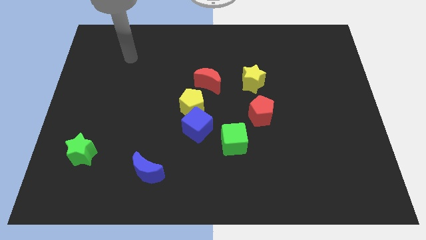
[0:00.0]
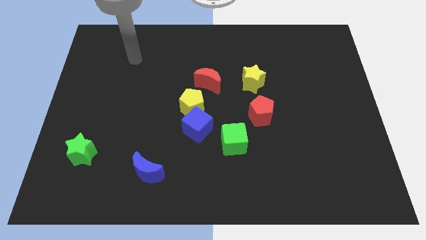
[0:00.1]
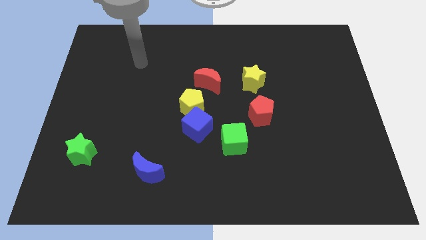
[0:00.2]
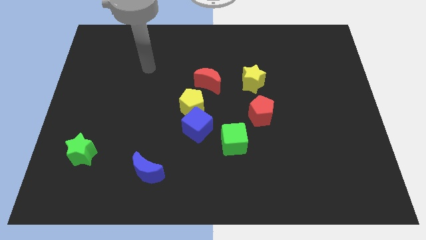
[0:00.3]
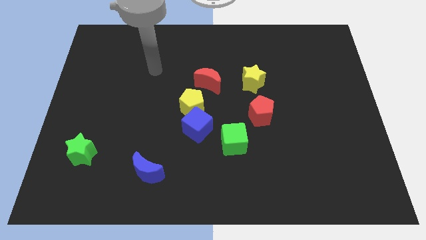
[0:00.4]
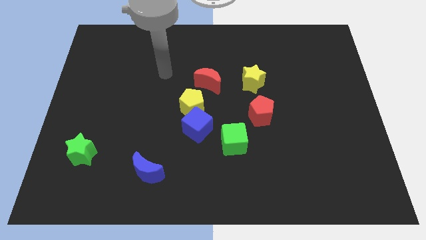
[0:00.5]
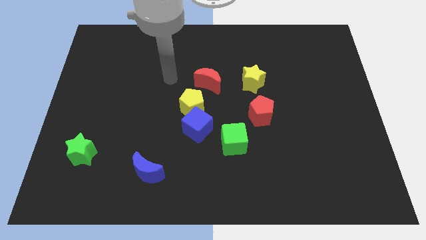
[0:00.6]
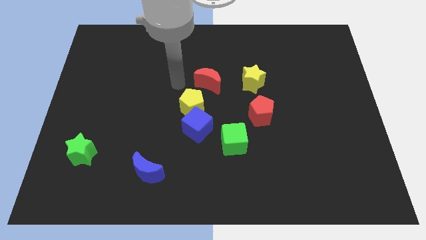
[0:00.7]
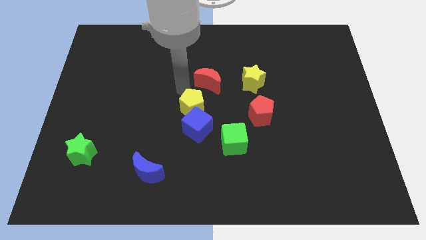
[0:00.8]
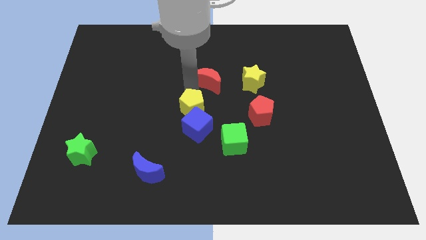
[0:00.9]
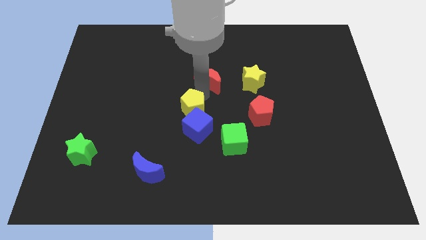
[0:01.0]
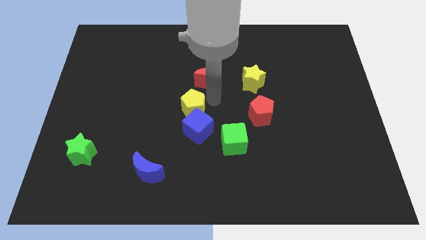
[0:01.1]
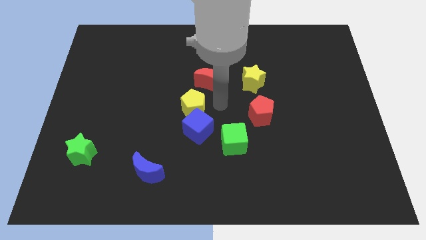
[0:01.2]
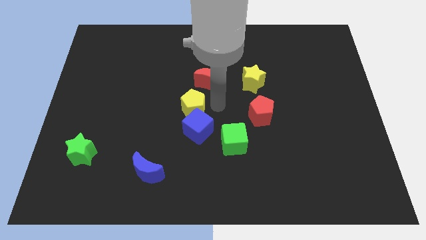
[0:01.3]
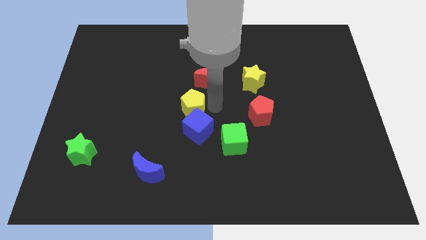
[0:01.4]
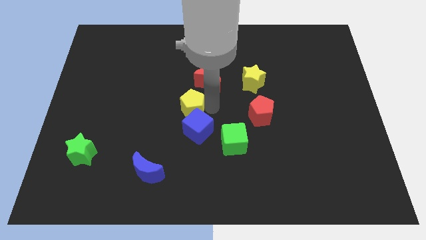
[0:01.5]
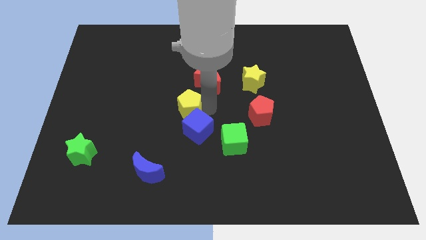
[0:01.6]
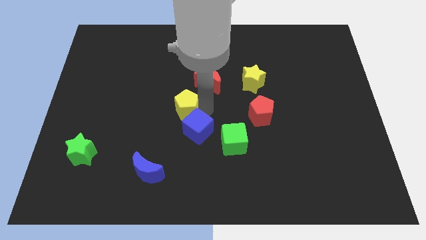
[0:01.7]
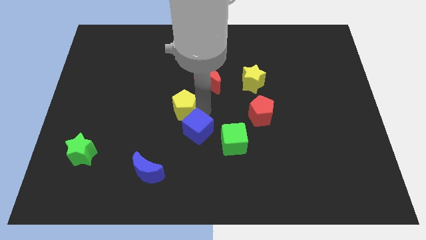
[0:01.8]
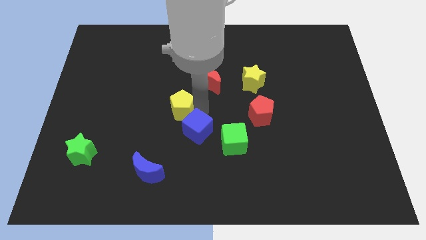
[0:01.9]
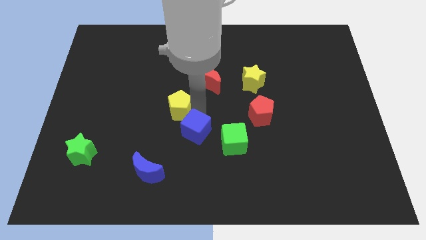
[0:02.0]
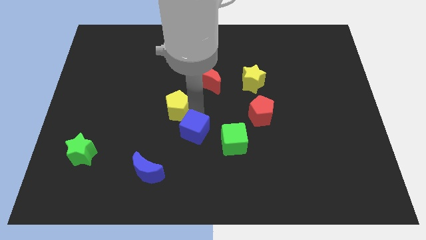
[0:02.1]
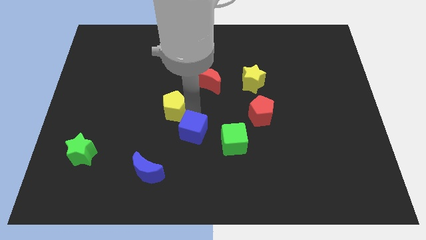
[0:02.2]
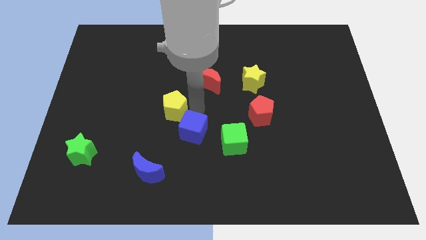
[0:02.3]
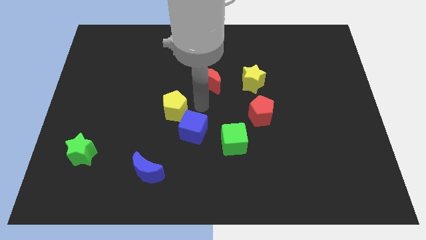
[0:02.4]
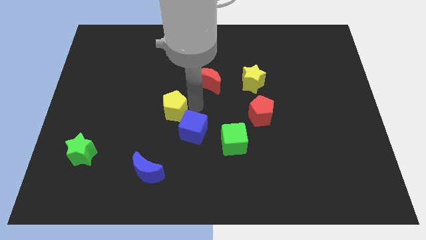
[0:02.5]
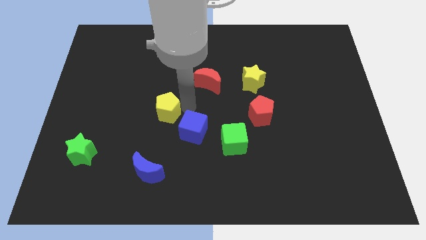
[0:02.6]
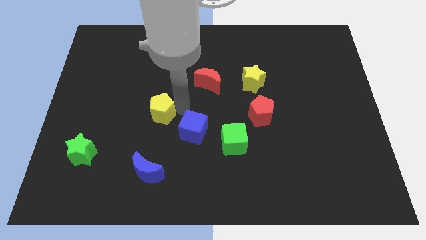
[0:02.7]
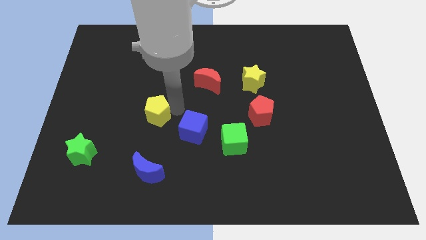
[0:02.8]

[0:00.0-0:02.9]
move the yellow pentagon away from the blue cube and red moon

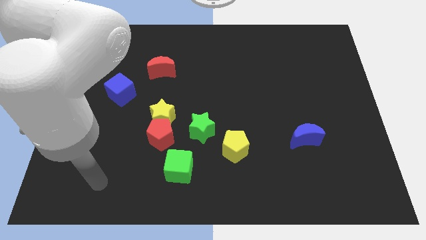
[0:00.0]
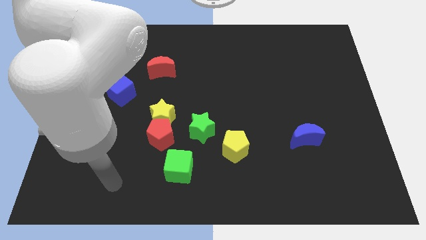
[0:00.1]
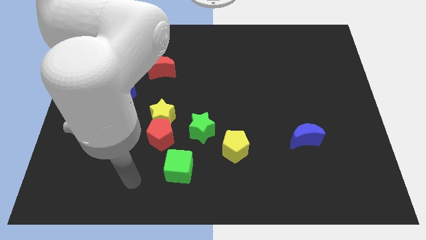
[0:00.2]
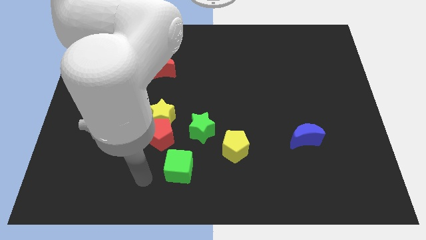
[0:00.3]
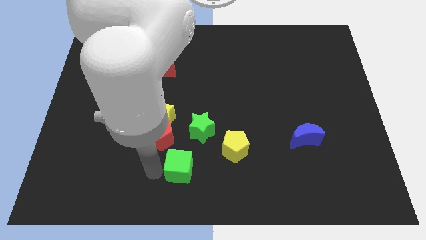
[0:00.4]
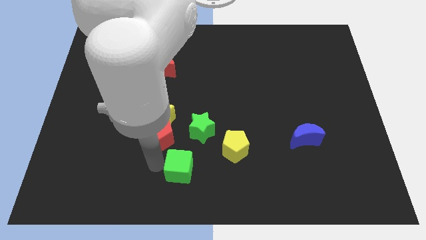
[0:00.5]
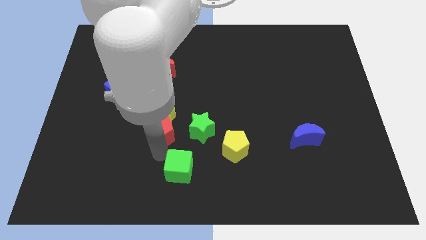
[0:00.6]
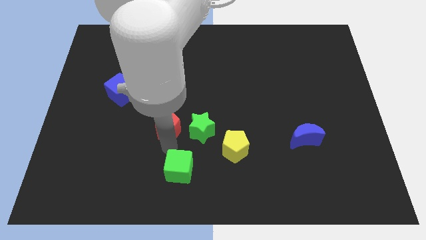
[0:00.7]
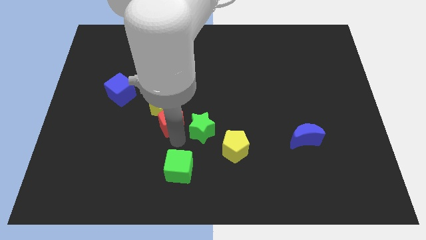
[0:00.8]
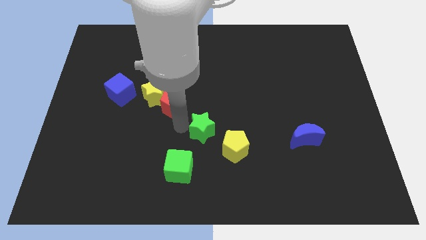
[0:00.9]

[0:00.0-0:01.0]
pull the yellow star apart from the red pentagon and green star

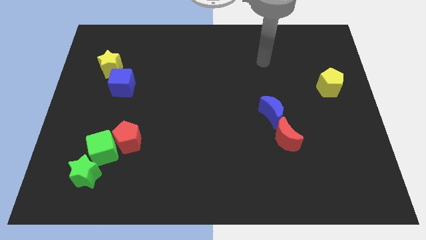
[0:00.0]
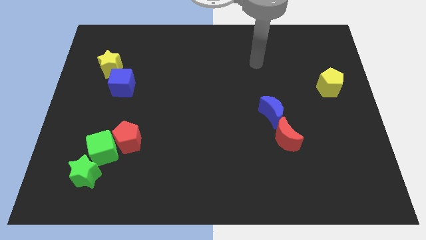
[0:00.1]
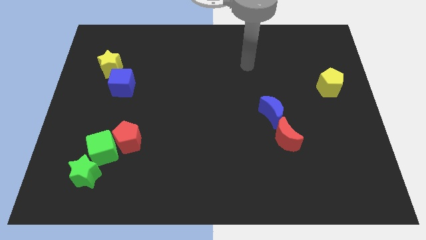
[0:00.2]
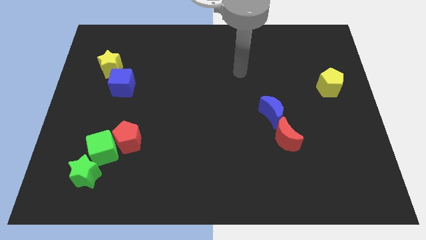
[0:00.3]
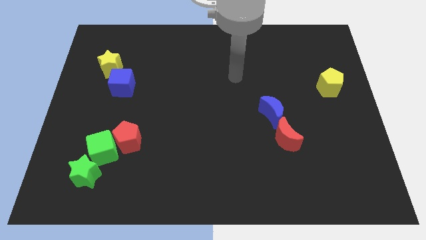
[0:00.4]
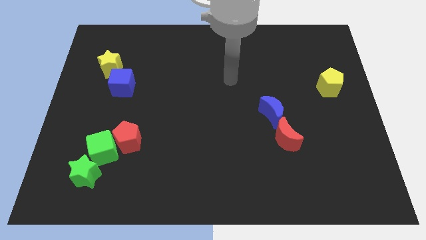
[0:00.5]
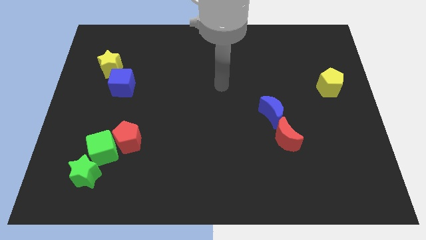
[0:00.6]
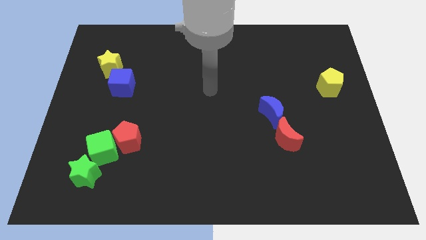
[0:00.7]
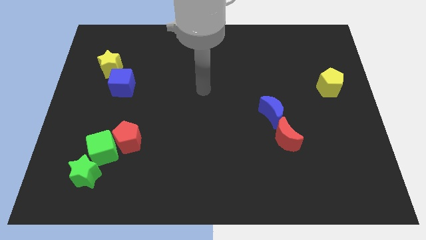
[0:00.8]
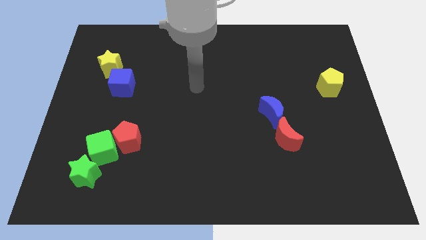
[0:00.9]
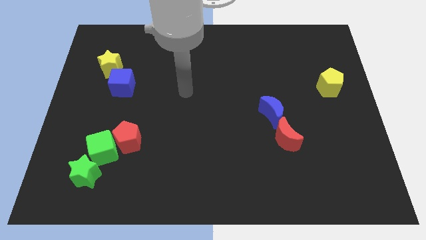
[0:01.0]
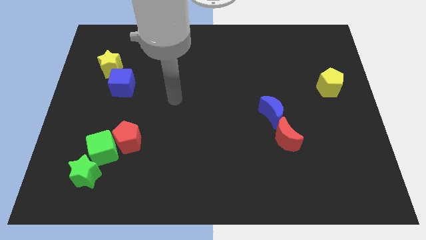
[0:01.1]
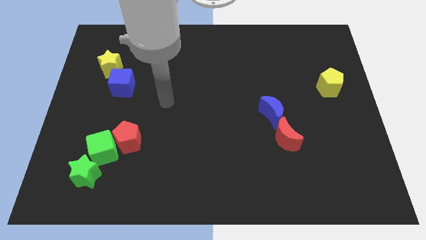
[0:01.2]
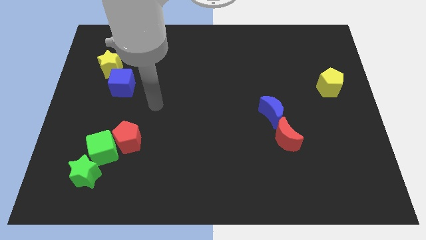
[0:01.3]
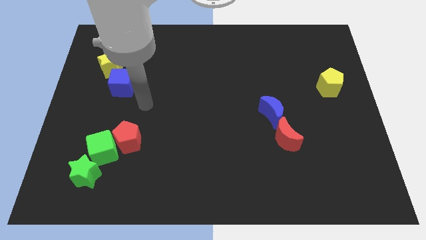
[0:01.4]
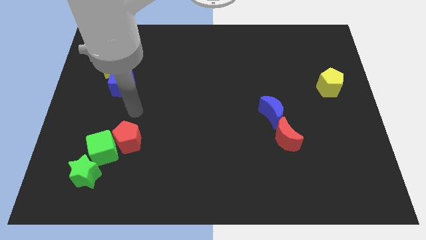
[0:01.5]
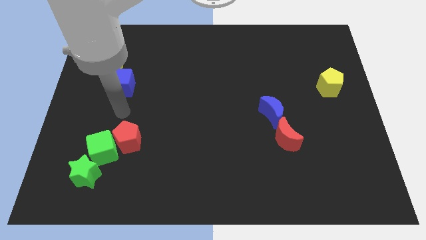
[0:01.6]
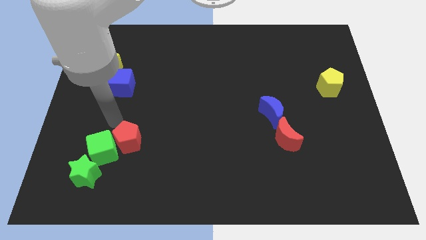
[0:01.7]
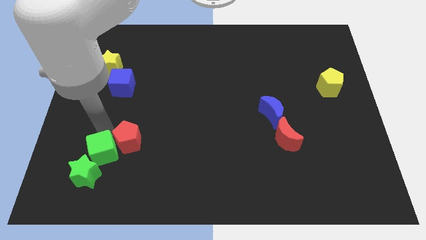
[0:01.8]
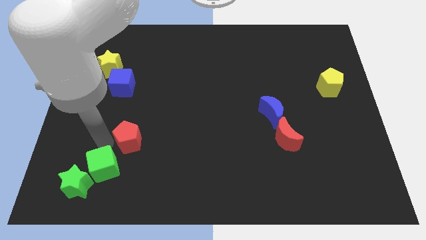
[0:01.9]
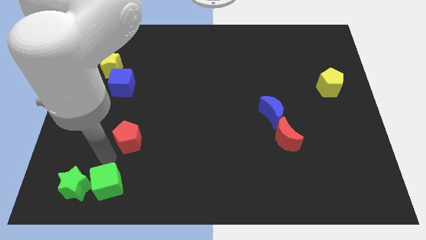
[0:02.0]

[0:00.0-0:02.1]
separate the red pentagon from the green cube

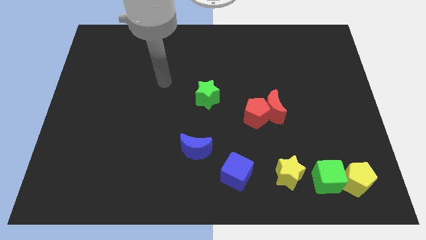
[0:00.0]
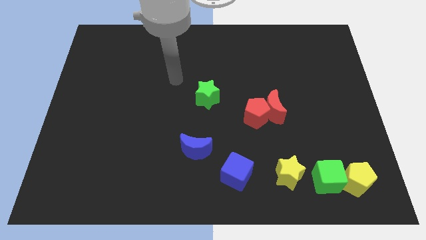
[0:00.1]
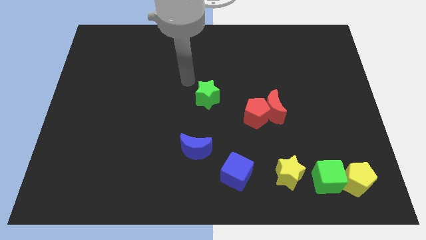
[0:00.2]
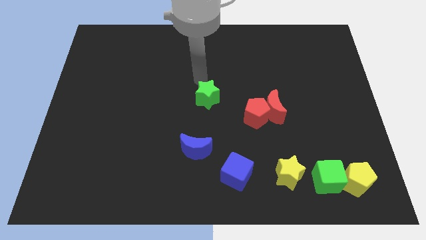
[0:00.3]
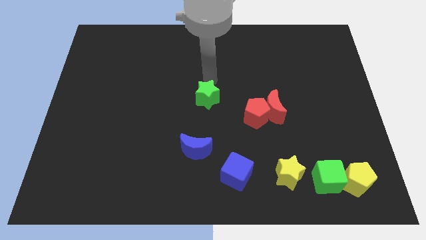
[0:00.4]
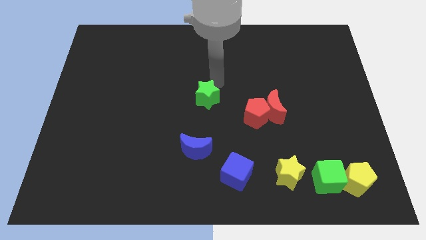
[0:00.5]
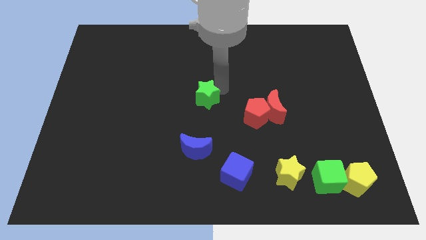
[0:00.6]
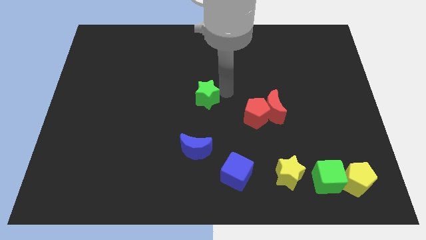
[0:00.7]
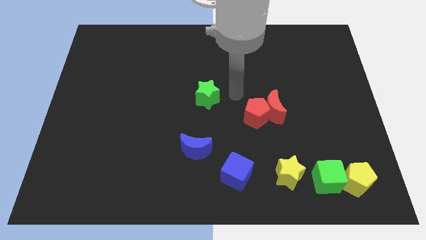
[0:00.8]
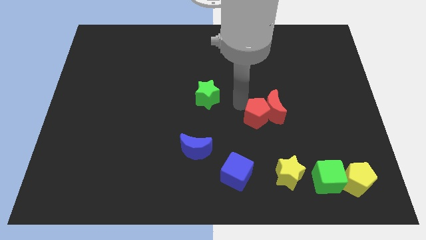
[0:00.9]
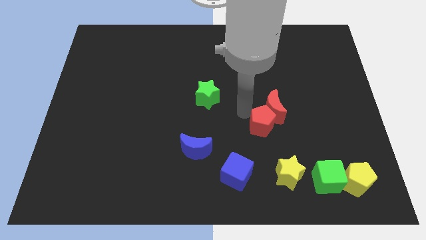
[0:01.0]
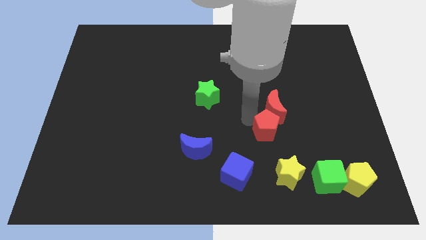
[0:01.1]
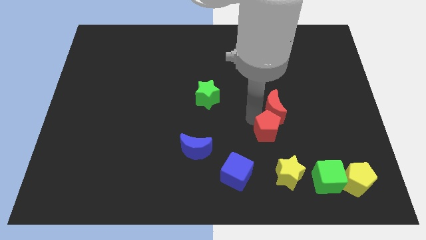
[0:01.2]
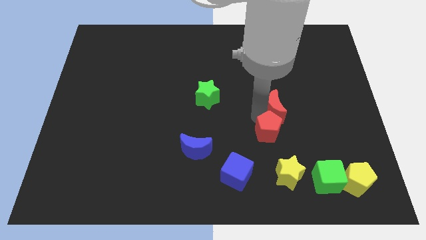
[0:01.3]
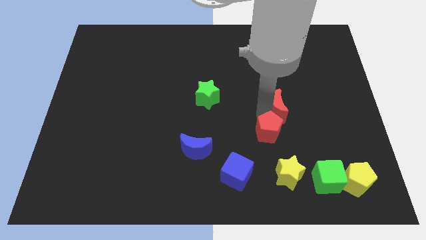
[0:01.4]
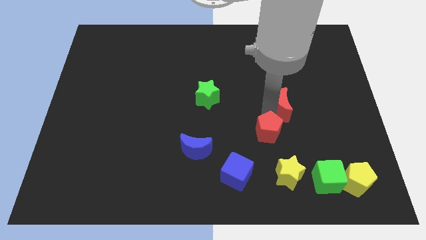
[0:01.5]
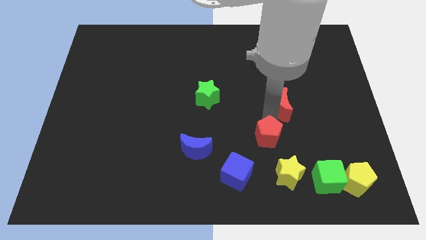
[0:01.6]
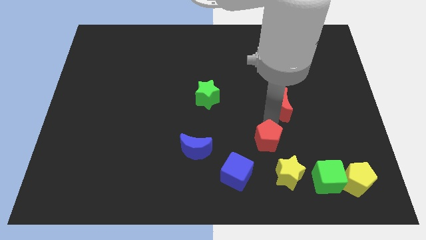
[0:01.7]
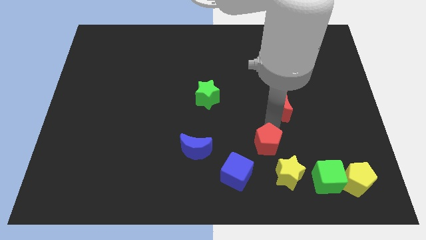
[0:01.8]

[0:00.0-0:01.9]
move the red moon away from the red pentagon

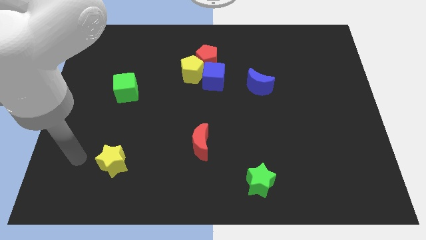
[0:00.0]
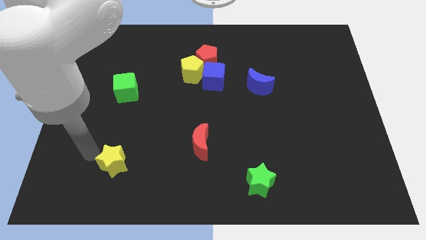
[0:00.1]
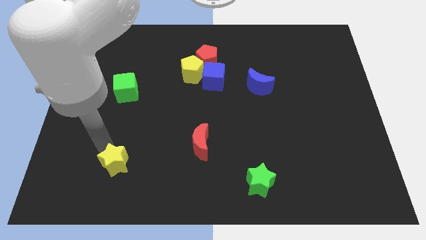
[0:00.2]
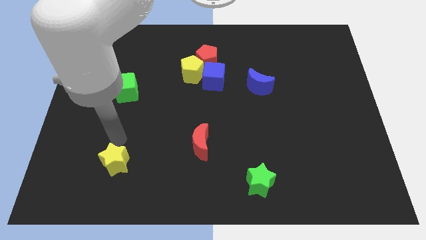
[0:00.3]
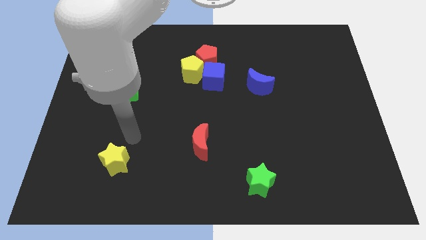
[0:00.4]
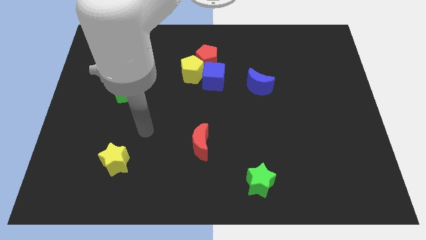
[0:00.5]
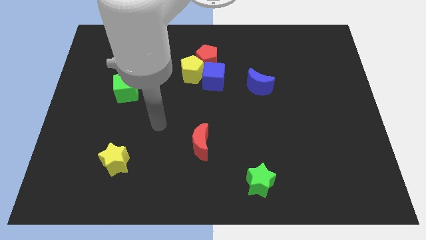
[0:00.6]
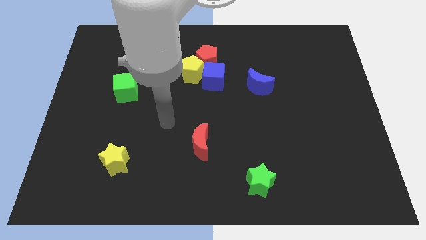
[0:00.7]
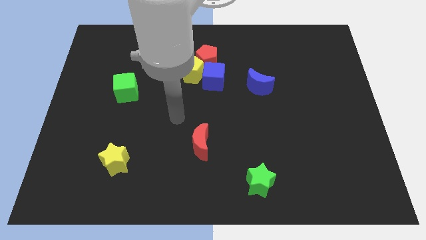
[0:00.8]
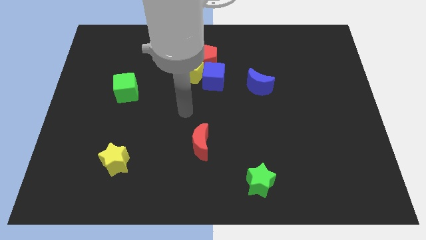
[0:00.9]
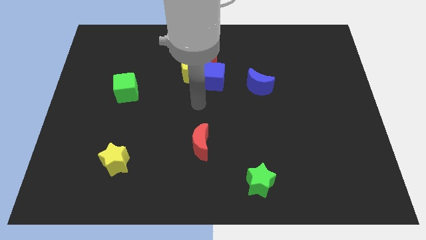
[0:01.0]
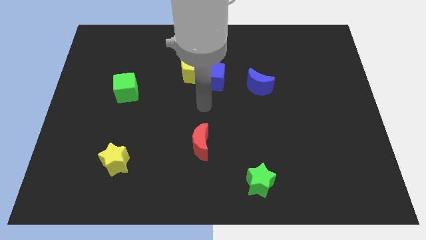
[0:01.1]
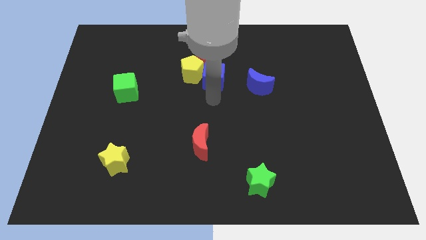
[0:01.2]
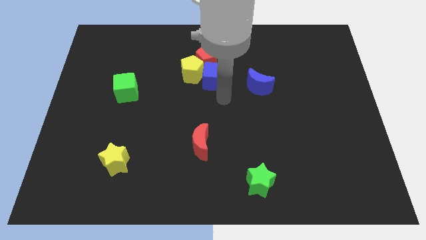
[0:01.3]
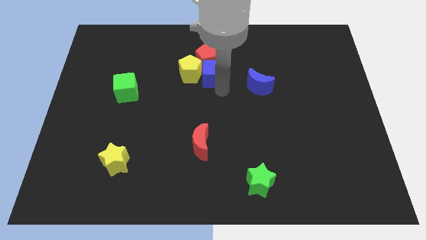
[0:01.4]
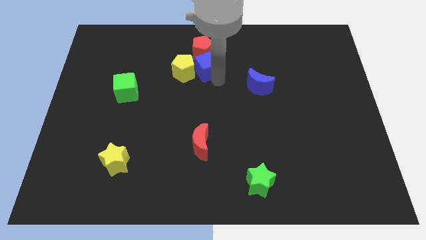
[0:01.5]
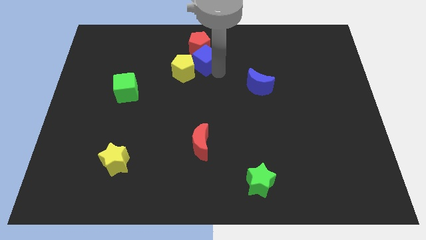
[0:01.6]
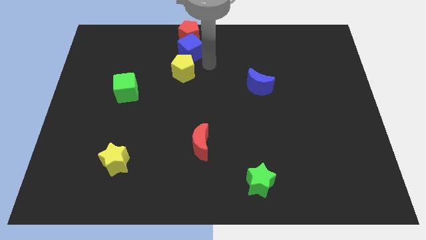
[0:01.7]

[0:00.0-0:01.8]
move the yellow pentagon away from the red pentagon and blue cube
